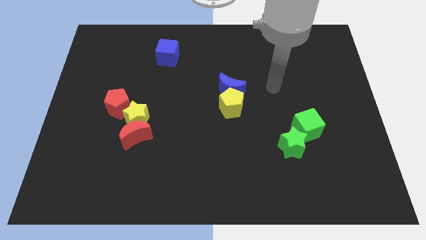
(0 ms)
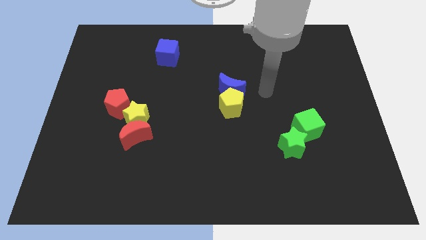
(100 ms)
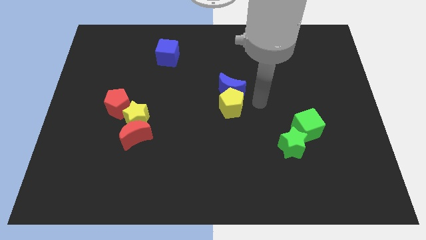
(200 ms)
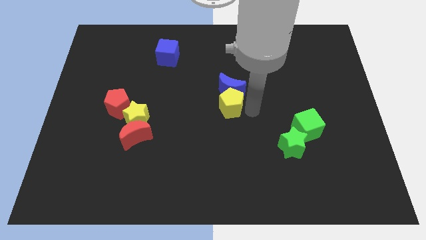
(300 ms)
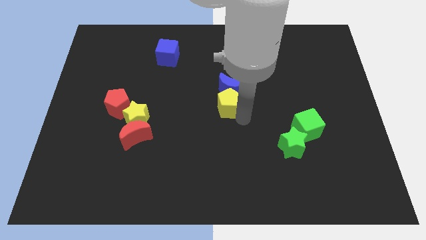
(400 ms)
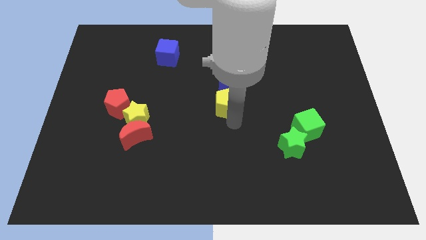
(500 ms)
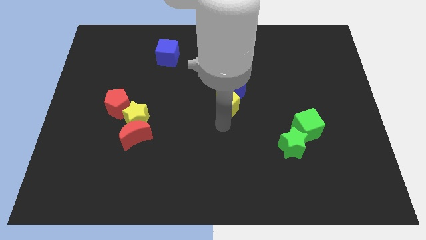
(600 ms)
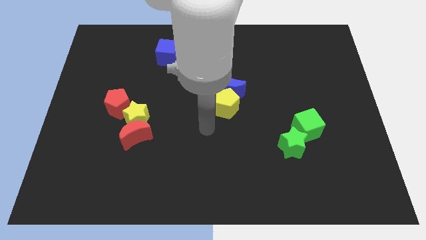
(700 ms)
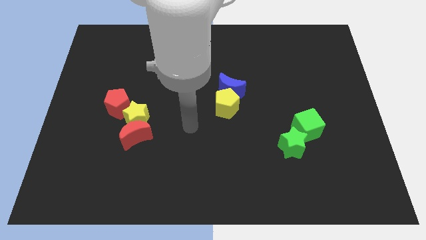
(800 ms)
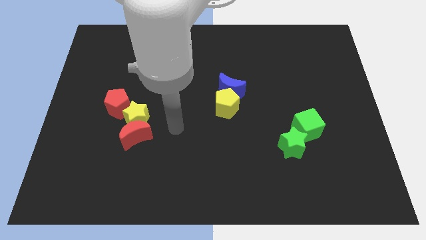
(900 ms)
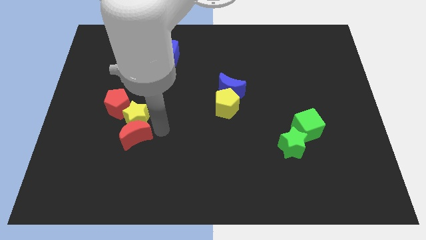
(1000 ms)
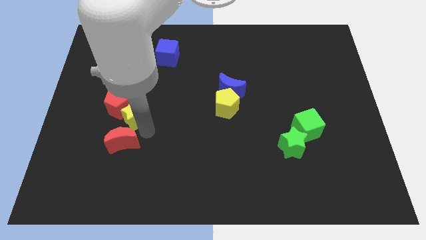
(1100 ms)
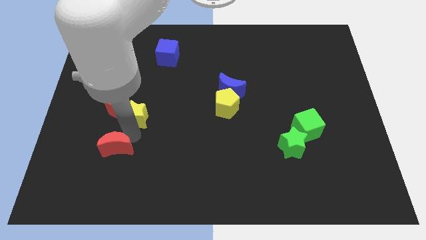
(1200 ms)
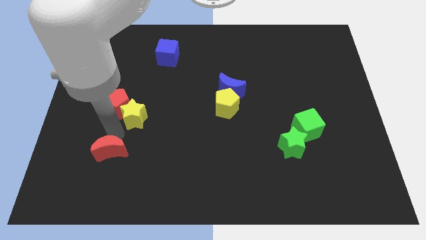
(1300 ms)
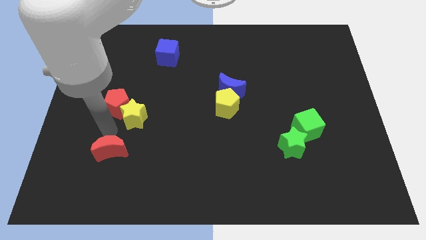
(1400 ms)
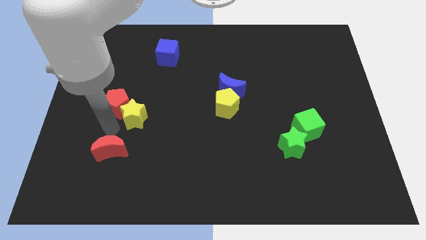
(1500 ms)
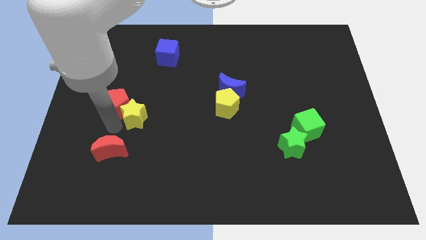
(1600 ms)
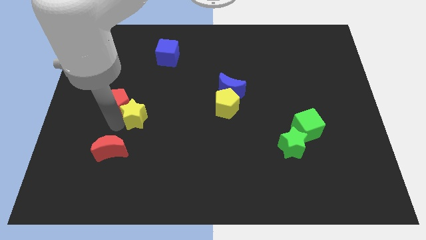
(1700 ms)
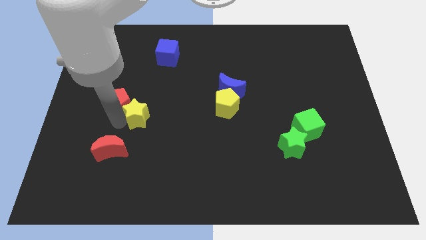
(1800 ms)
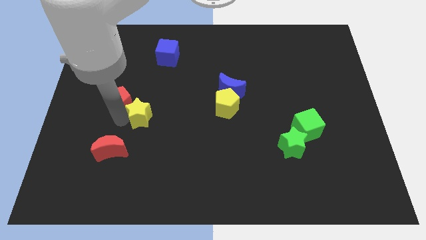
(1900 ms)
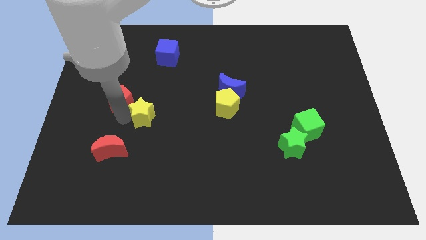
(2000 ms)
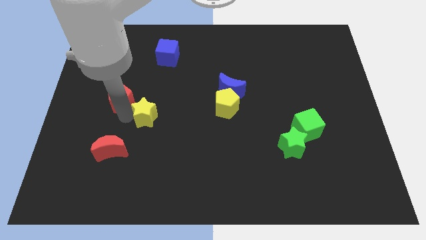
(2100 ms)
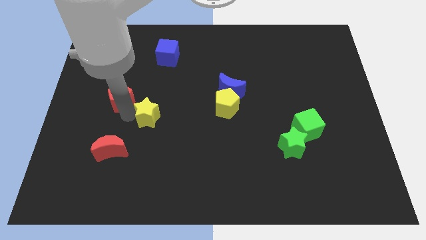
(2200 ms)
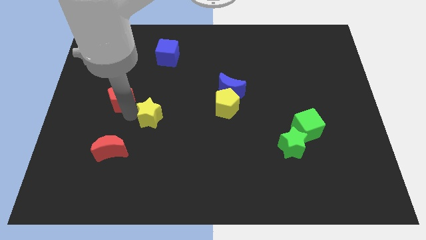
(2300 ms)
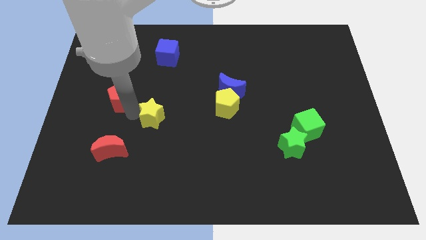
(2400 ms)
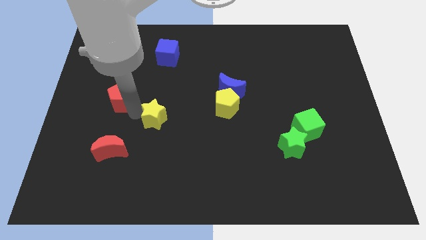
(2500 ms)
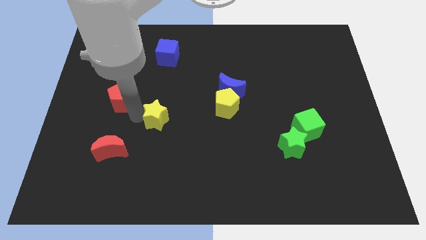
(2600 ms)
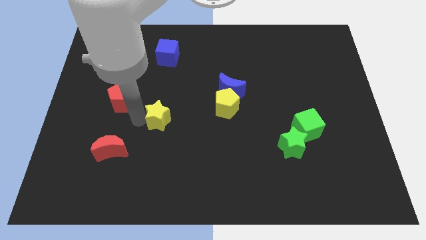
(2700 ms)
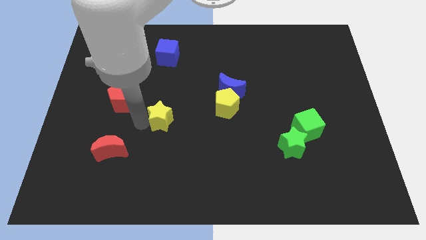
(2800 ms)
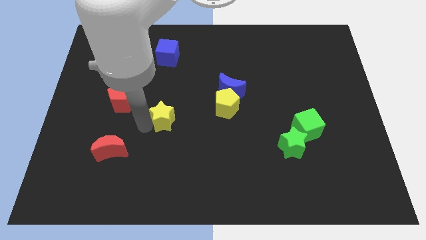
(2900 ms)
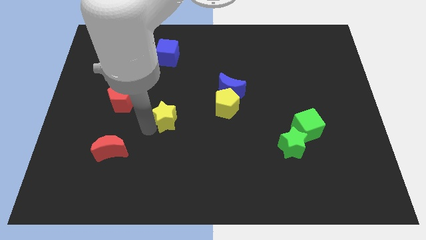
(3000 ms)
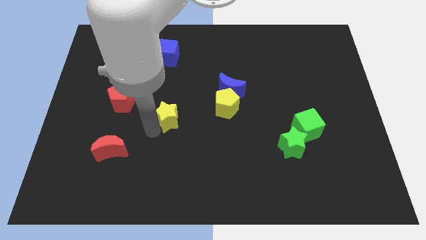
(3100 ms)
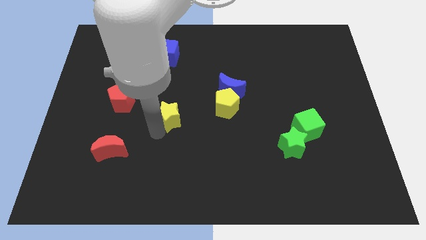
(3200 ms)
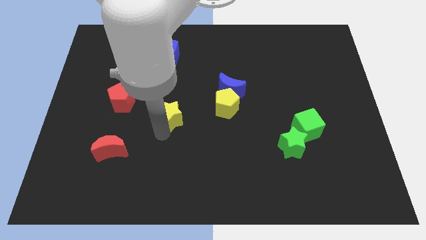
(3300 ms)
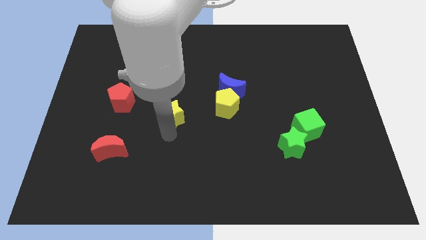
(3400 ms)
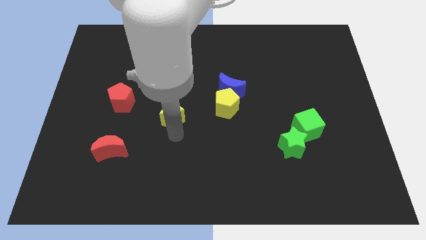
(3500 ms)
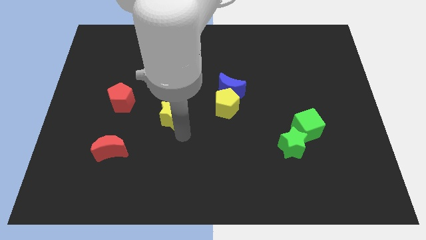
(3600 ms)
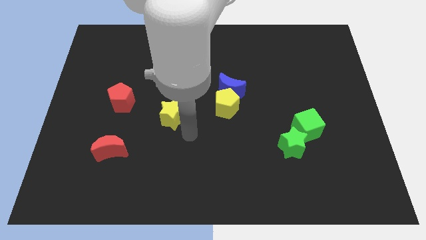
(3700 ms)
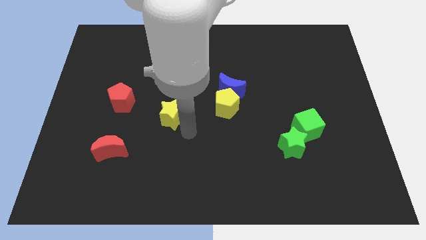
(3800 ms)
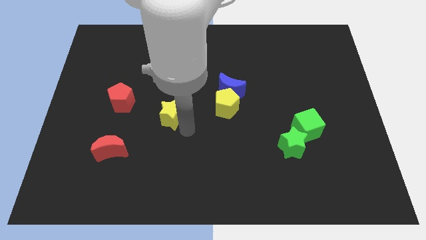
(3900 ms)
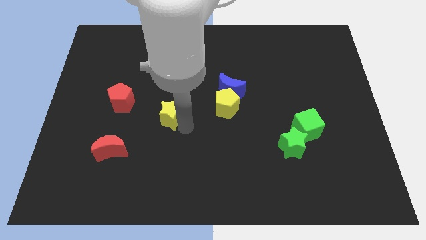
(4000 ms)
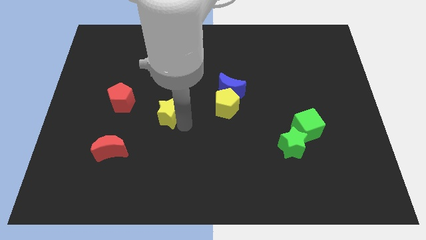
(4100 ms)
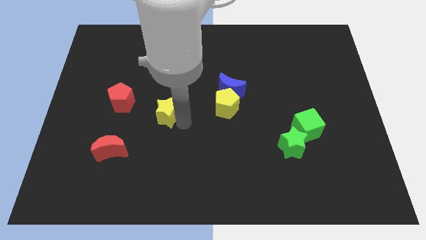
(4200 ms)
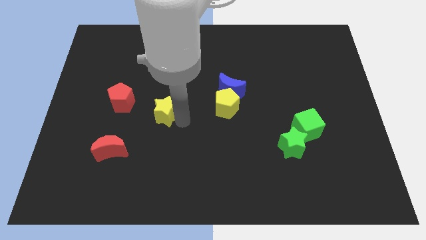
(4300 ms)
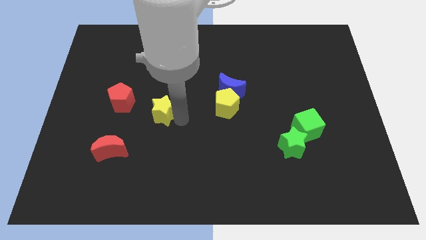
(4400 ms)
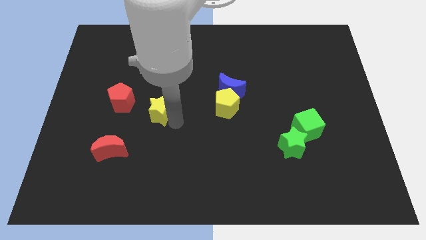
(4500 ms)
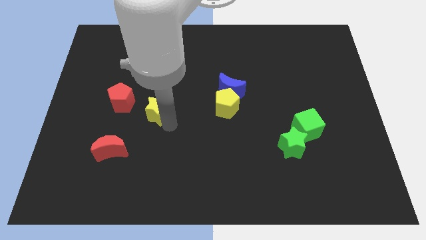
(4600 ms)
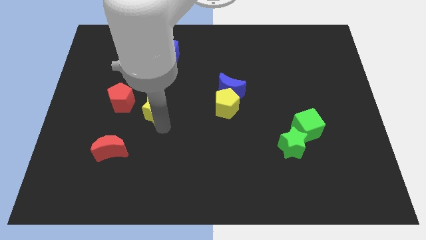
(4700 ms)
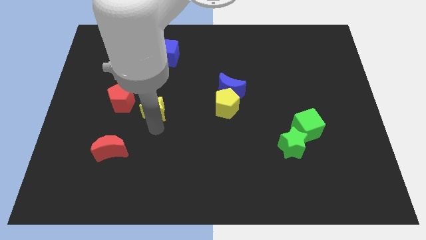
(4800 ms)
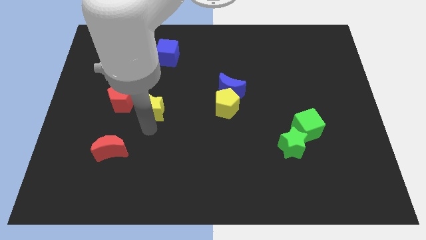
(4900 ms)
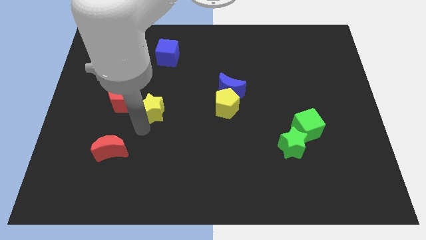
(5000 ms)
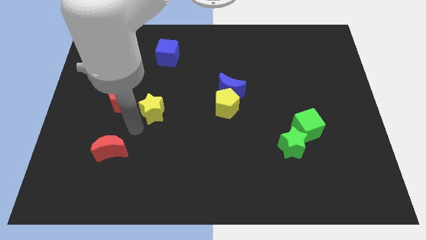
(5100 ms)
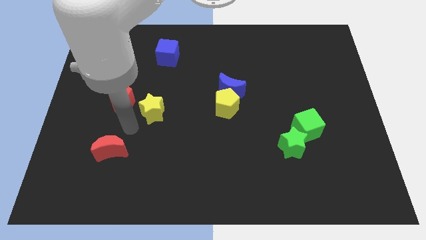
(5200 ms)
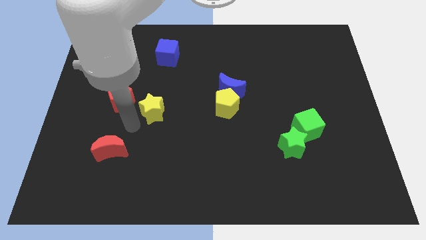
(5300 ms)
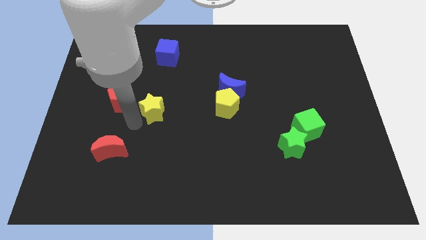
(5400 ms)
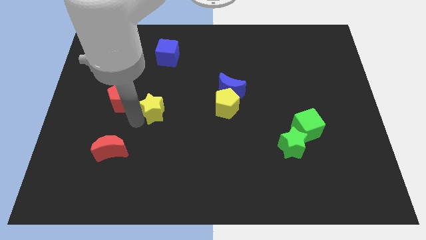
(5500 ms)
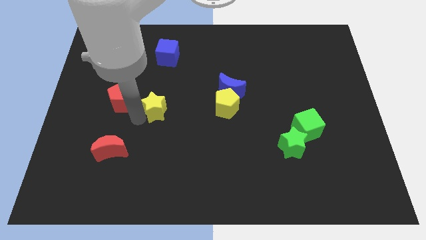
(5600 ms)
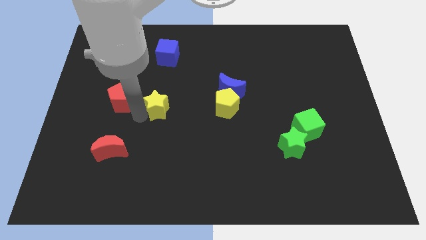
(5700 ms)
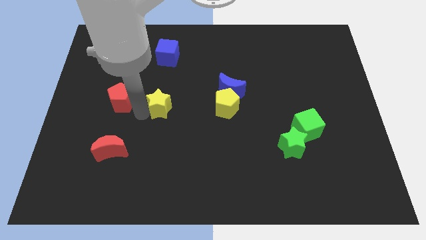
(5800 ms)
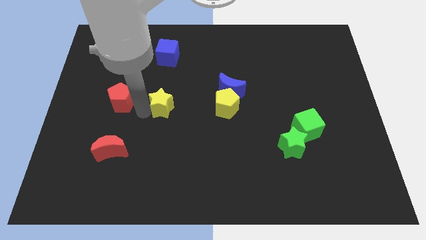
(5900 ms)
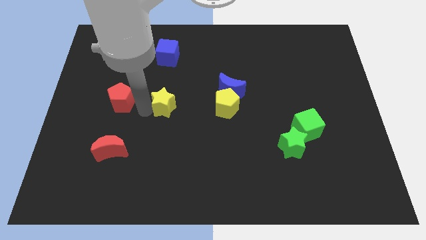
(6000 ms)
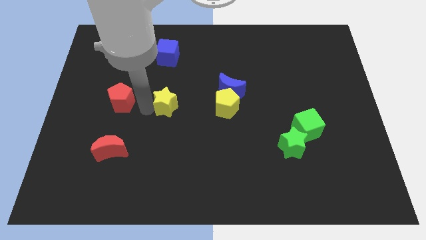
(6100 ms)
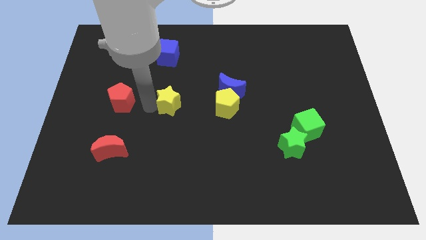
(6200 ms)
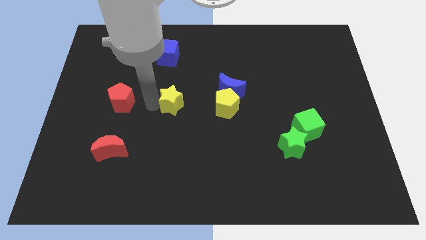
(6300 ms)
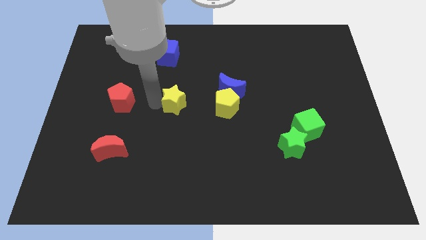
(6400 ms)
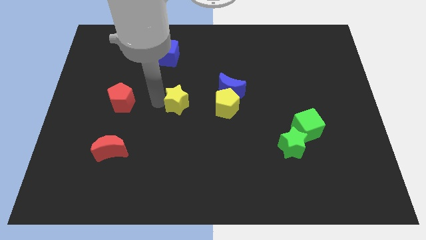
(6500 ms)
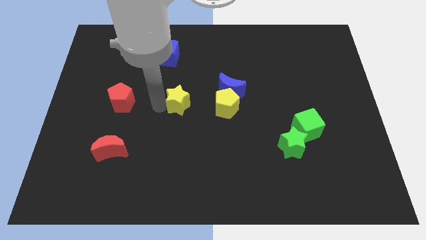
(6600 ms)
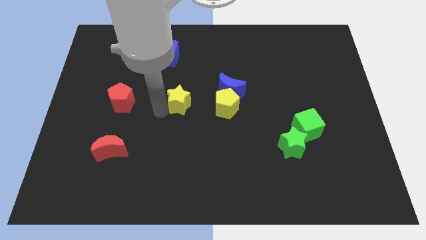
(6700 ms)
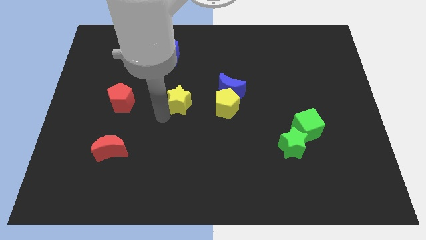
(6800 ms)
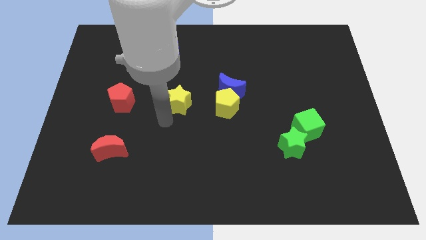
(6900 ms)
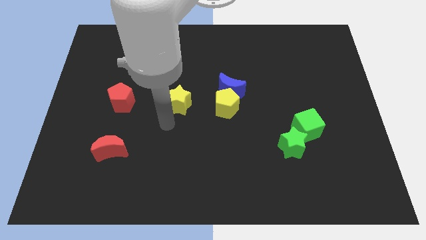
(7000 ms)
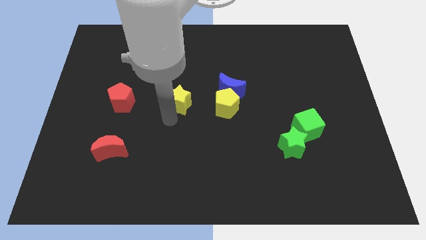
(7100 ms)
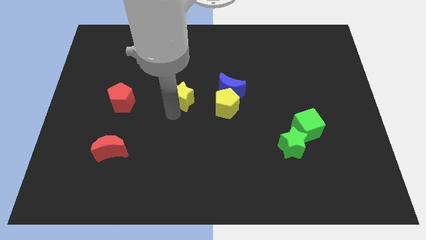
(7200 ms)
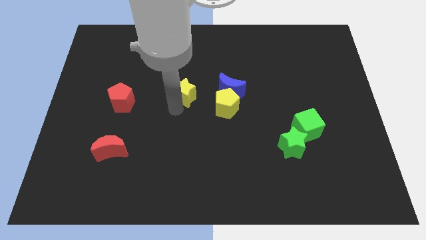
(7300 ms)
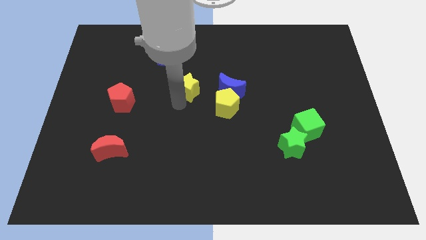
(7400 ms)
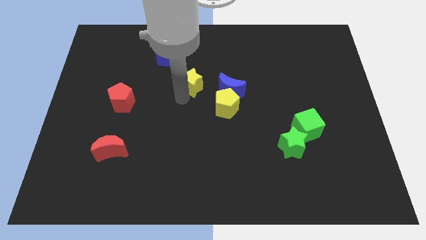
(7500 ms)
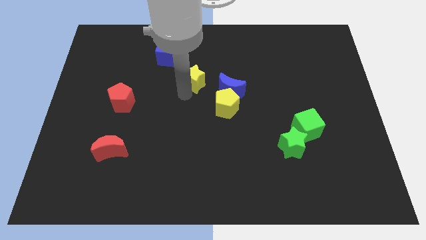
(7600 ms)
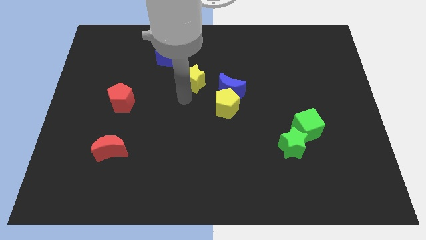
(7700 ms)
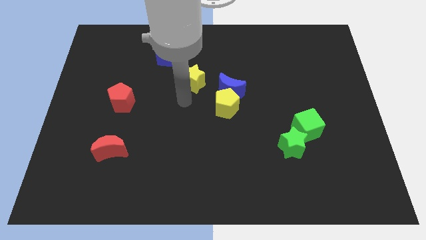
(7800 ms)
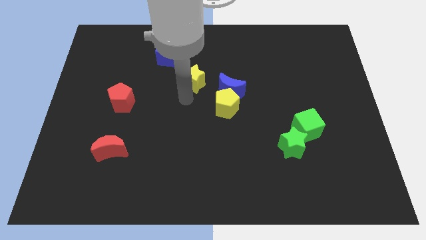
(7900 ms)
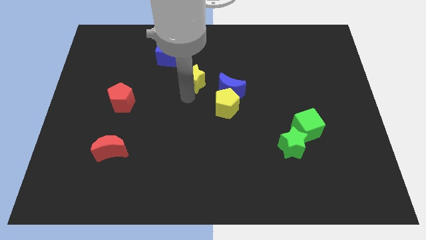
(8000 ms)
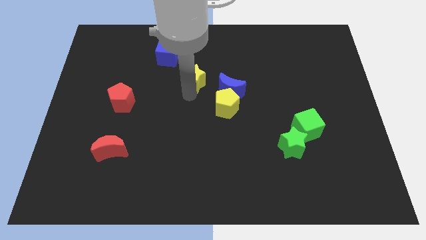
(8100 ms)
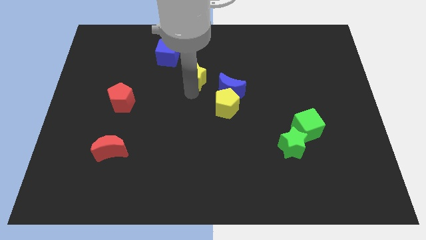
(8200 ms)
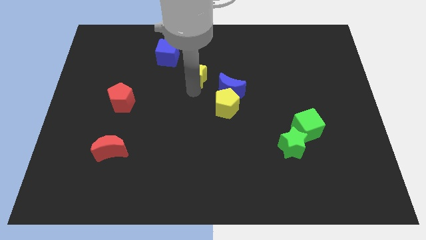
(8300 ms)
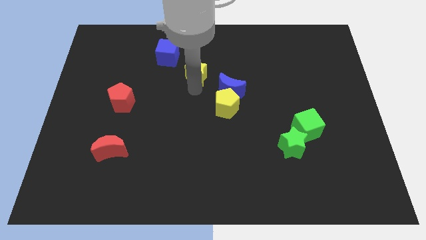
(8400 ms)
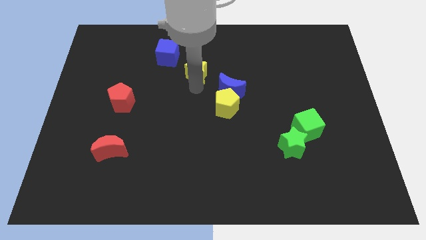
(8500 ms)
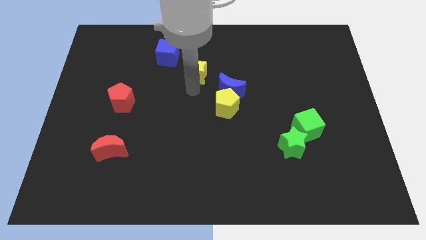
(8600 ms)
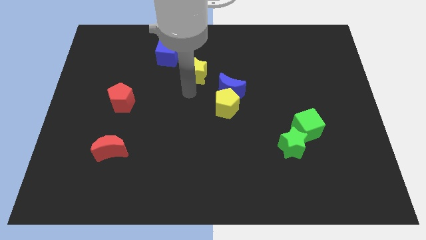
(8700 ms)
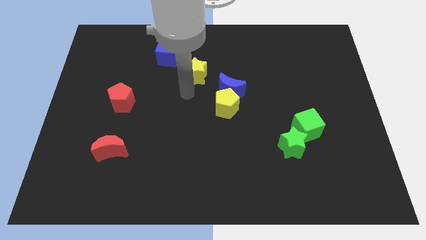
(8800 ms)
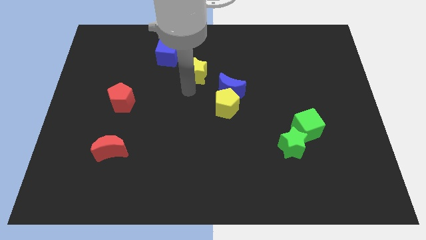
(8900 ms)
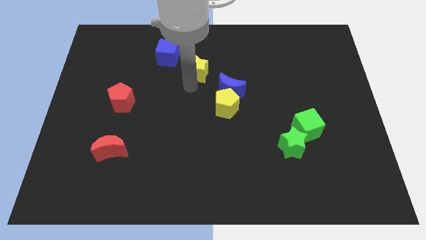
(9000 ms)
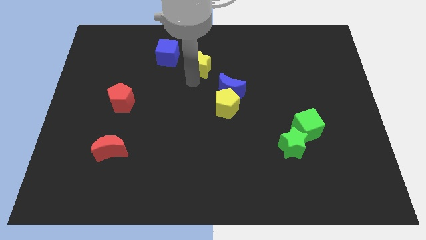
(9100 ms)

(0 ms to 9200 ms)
move the yellow star right of the blue cube
